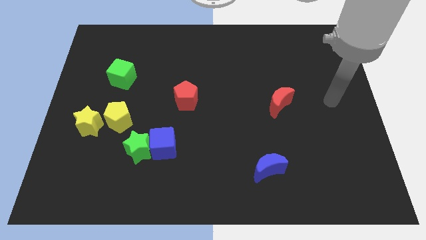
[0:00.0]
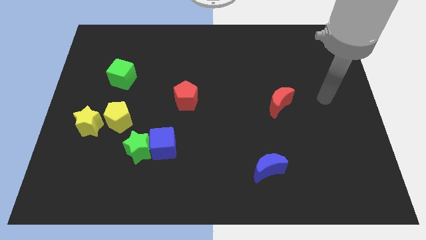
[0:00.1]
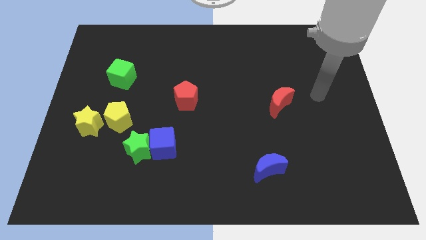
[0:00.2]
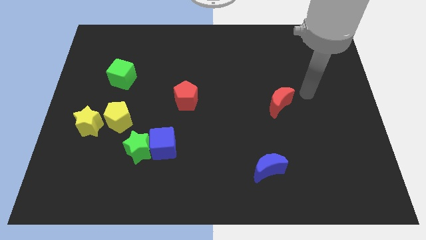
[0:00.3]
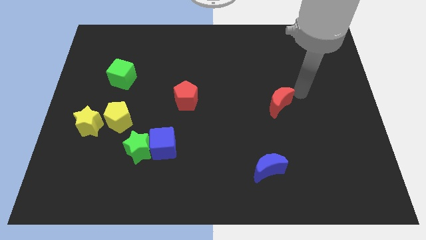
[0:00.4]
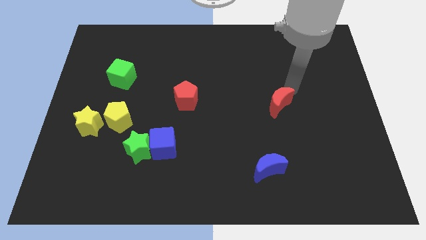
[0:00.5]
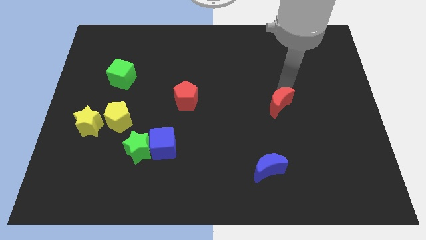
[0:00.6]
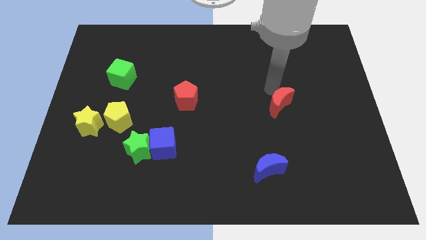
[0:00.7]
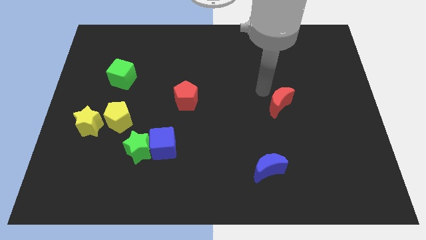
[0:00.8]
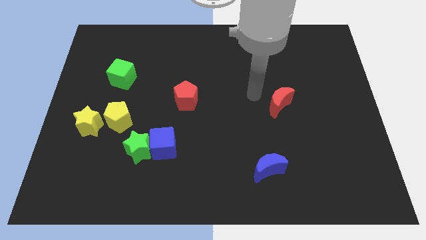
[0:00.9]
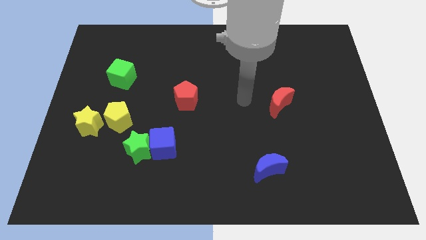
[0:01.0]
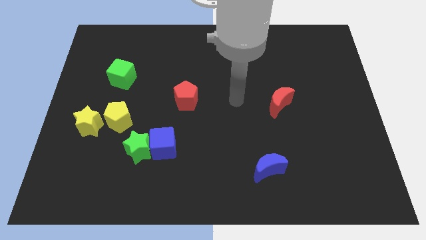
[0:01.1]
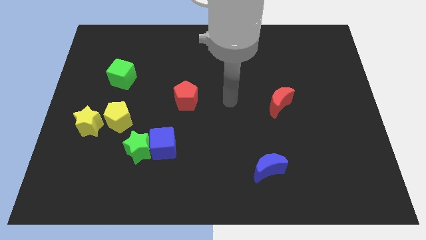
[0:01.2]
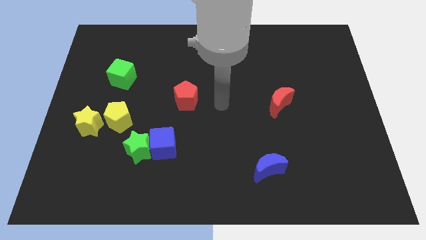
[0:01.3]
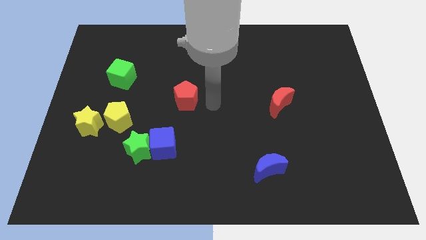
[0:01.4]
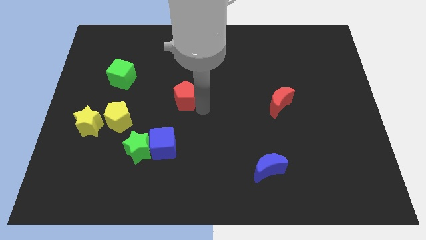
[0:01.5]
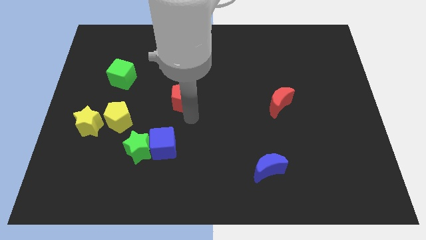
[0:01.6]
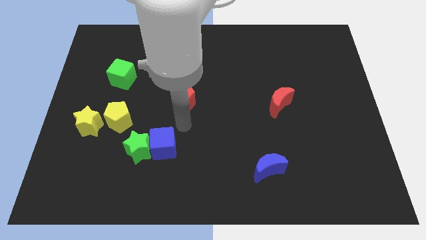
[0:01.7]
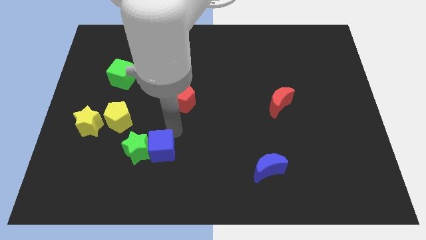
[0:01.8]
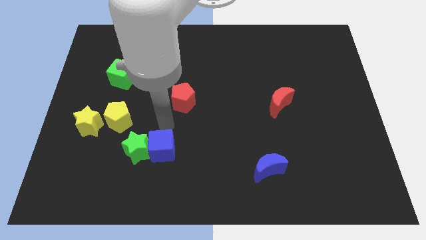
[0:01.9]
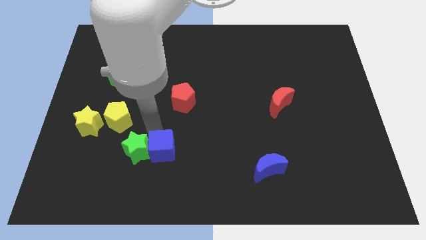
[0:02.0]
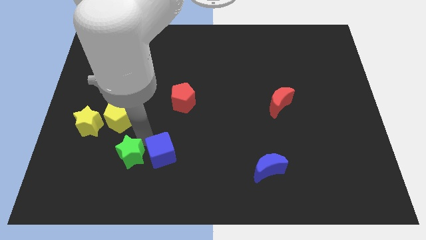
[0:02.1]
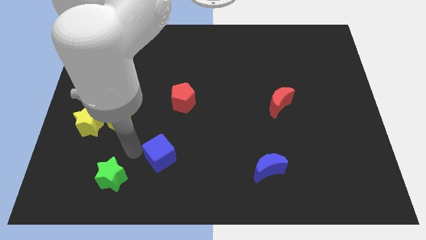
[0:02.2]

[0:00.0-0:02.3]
separate the blue cube from the green star

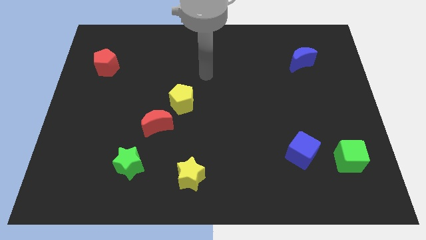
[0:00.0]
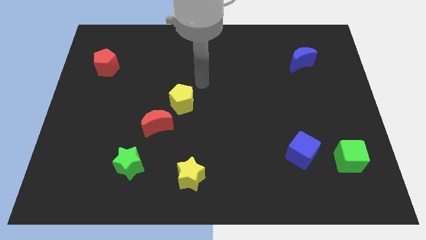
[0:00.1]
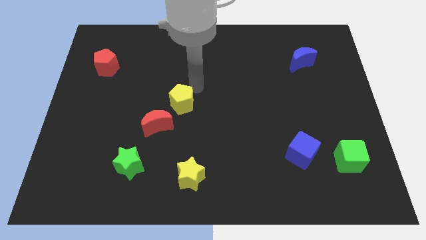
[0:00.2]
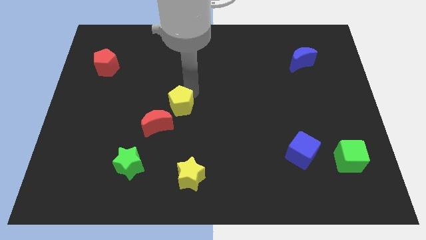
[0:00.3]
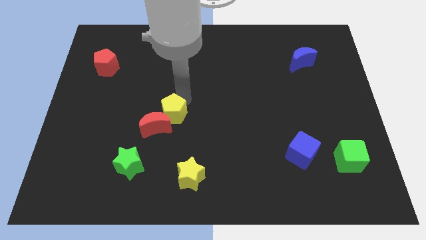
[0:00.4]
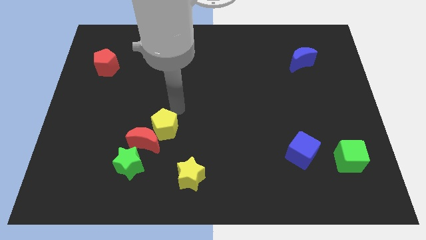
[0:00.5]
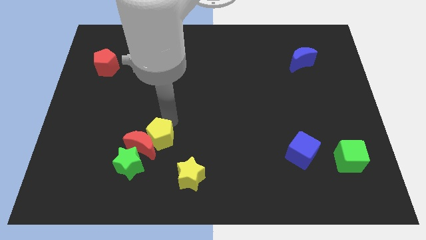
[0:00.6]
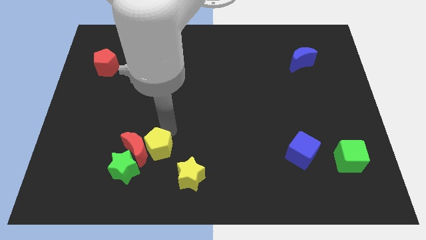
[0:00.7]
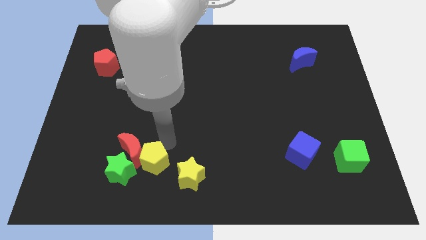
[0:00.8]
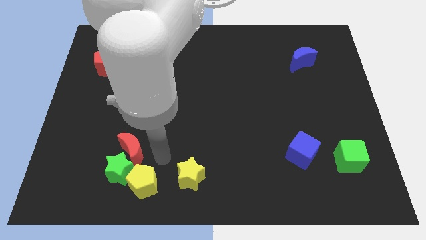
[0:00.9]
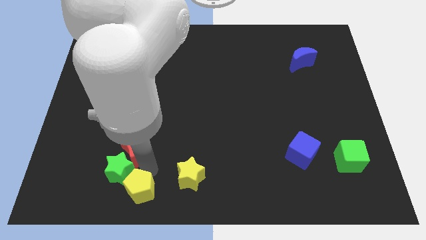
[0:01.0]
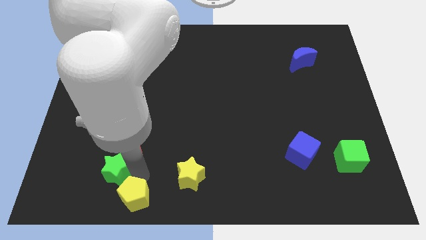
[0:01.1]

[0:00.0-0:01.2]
move the red moon away from the yellow pentagon

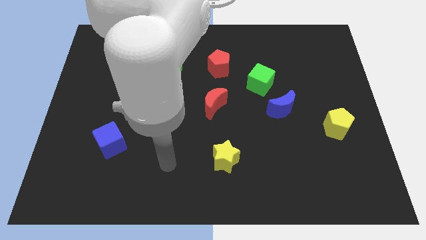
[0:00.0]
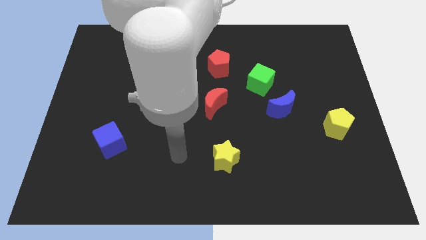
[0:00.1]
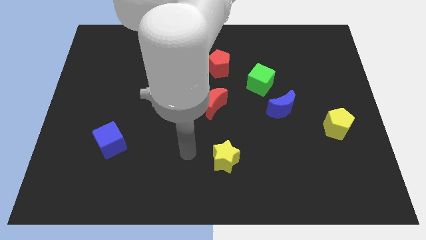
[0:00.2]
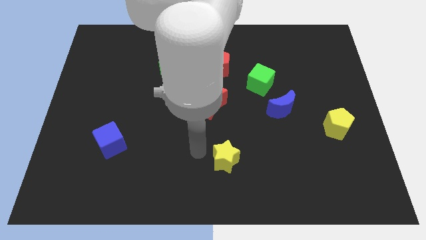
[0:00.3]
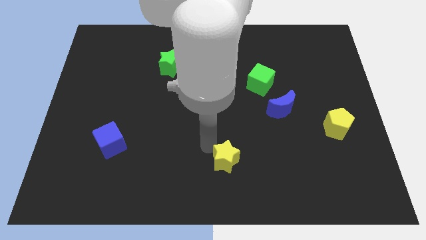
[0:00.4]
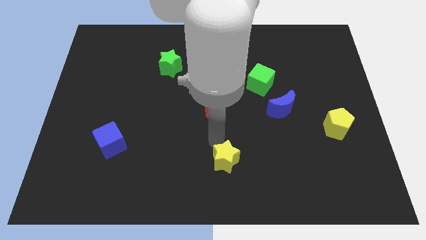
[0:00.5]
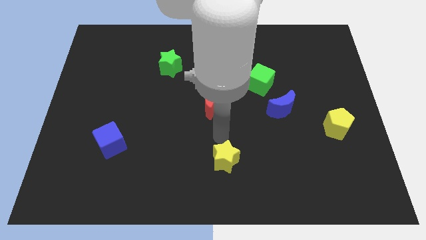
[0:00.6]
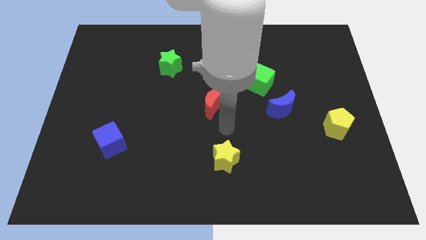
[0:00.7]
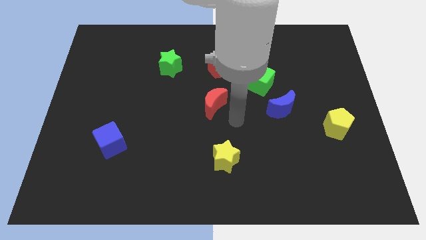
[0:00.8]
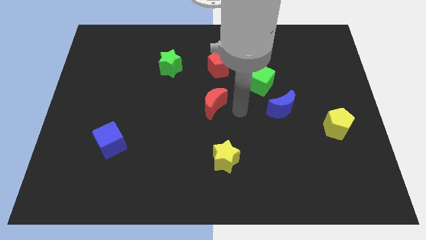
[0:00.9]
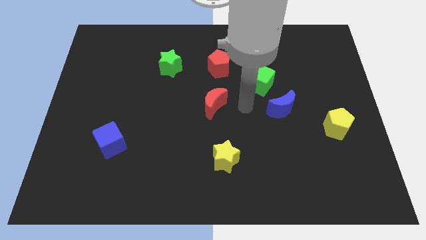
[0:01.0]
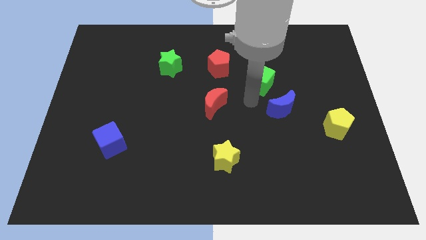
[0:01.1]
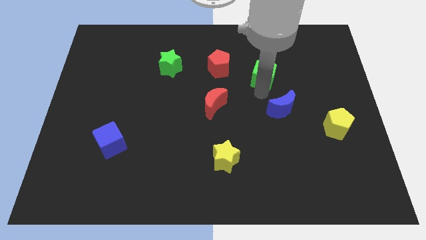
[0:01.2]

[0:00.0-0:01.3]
separate the blue moon from the green cube

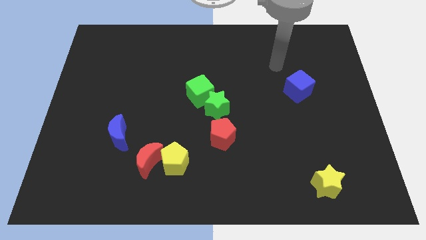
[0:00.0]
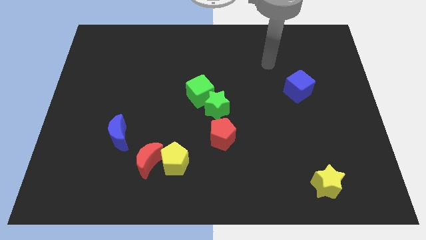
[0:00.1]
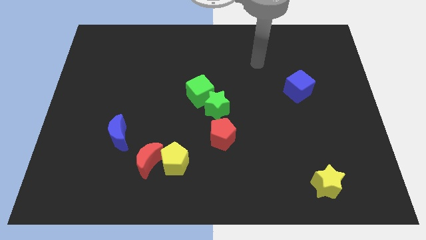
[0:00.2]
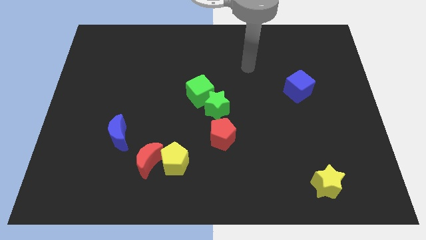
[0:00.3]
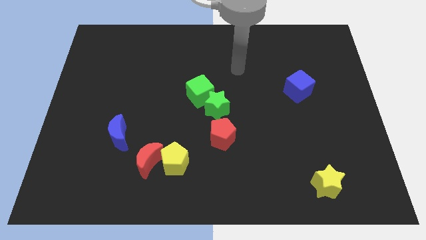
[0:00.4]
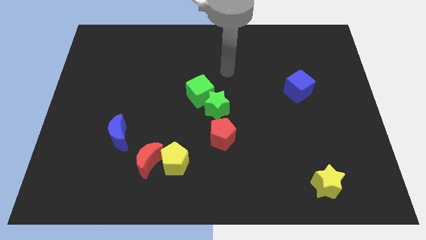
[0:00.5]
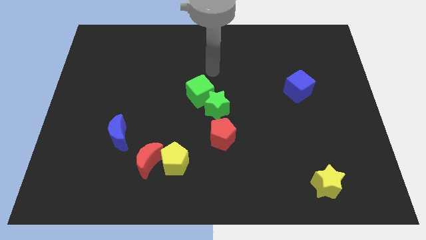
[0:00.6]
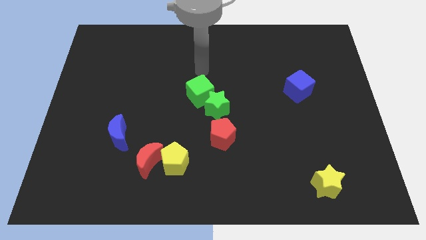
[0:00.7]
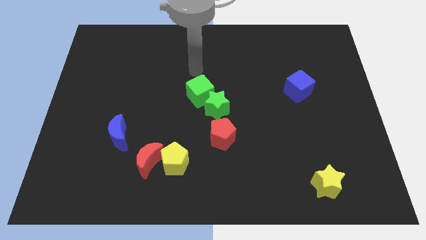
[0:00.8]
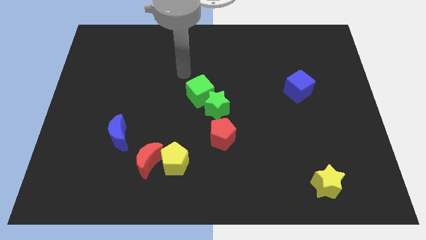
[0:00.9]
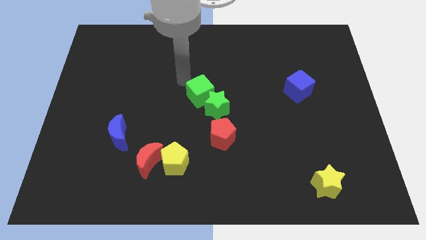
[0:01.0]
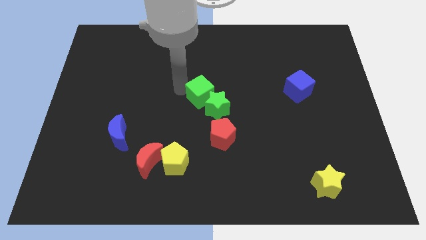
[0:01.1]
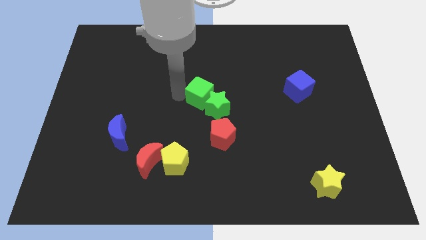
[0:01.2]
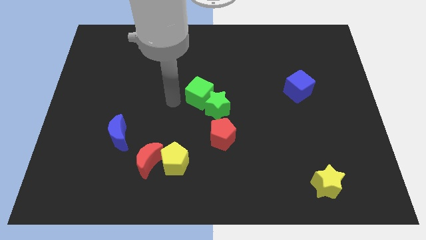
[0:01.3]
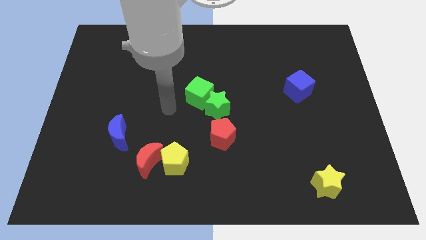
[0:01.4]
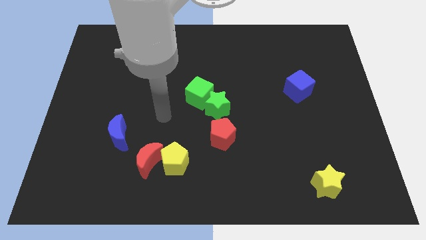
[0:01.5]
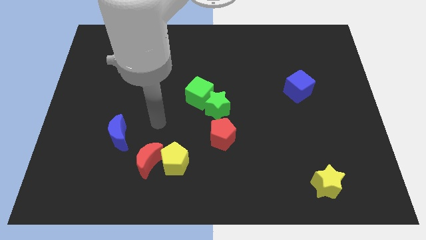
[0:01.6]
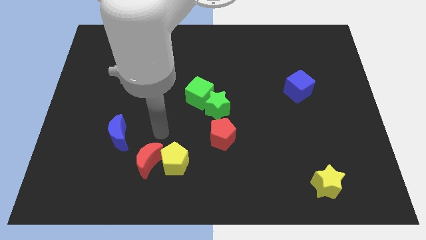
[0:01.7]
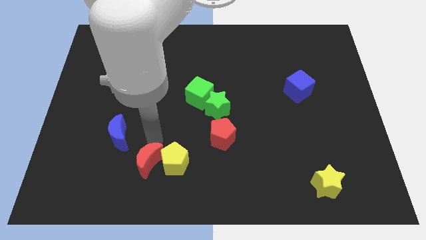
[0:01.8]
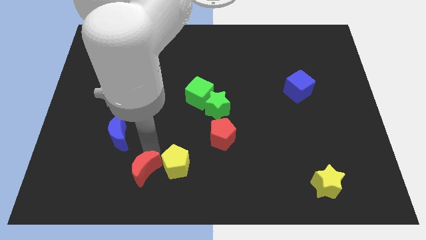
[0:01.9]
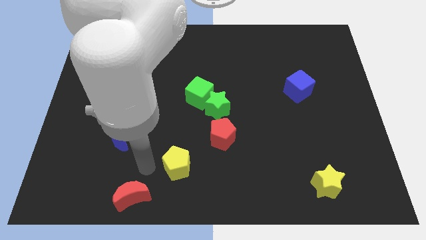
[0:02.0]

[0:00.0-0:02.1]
pull the yellow pentagon apart from the red moon

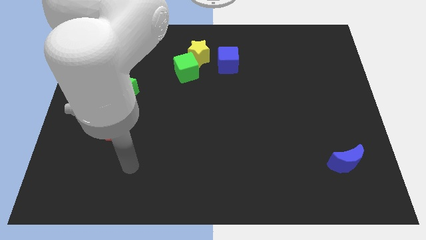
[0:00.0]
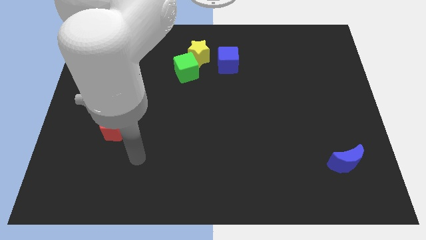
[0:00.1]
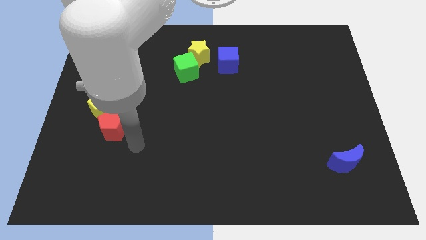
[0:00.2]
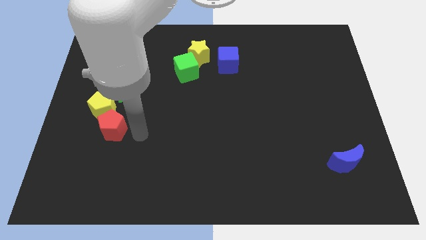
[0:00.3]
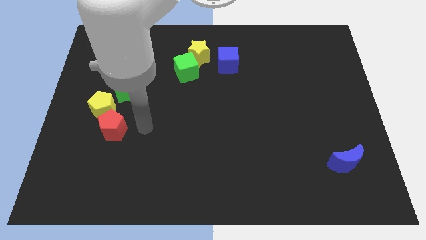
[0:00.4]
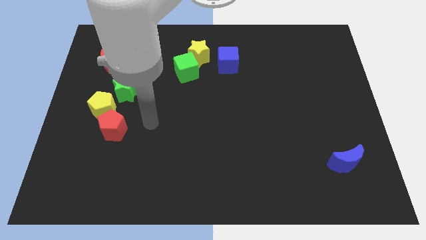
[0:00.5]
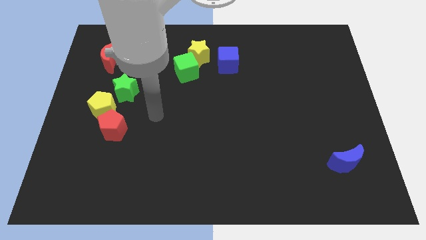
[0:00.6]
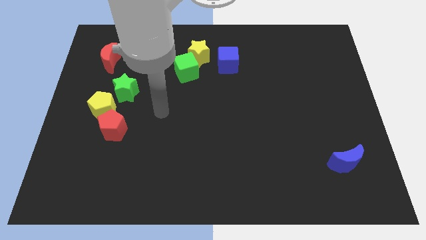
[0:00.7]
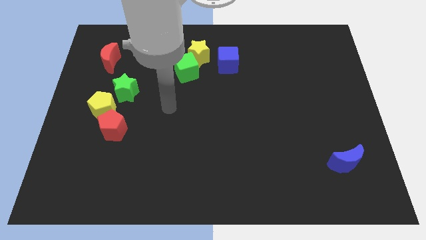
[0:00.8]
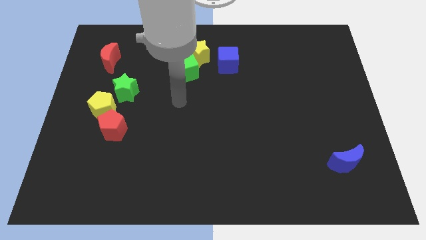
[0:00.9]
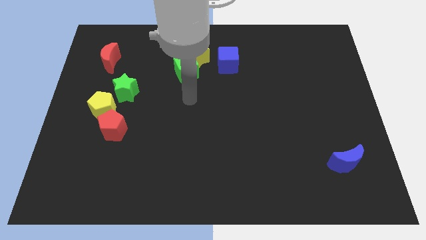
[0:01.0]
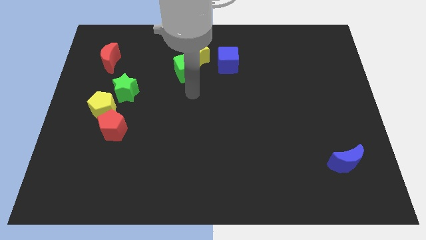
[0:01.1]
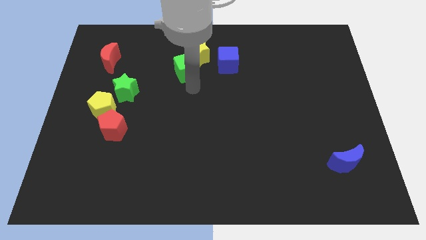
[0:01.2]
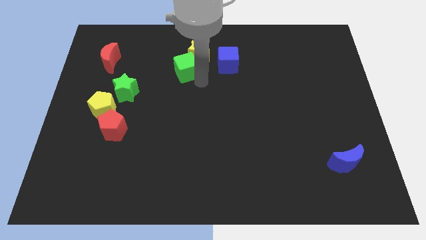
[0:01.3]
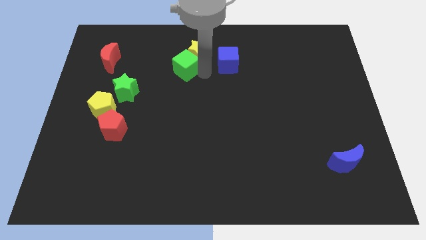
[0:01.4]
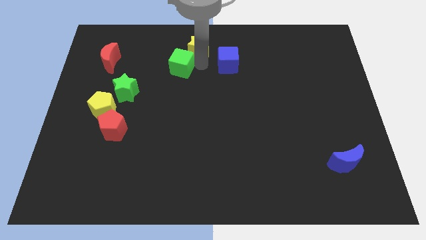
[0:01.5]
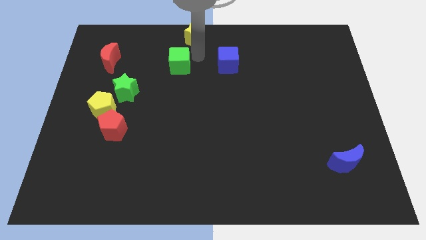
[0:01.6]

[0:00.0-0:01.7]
move the green cube away from the yellow star

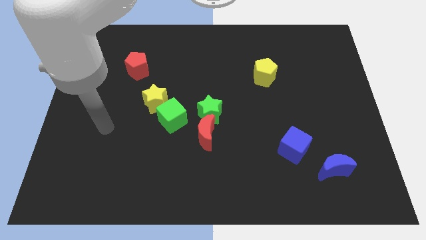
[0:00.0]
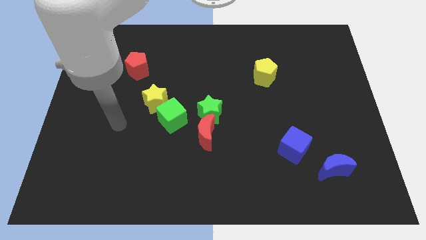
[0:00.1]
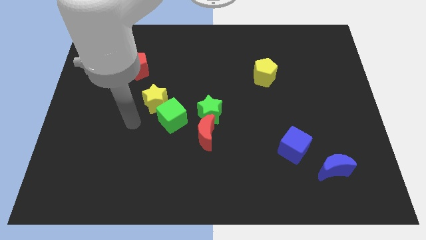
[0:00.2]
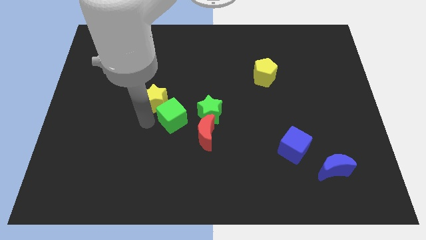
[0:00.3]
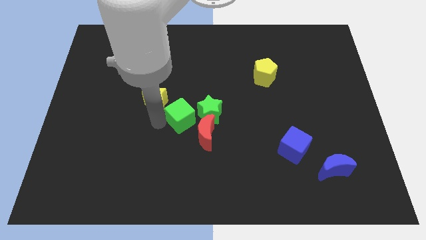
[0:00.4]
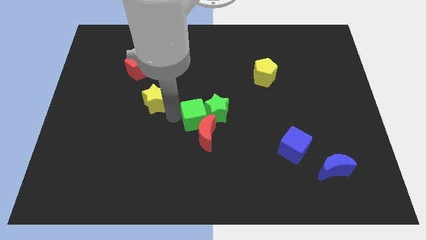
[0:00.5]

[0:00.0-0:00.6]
move the yellow star away from the green cube

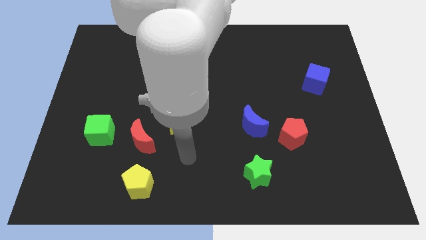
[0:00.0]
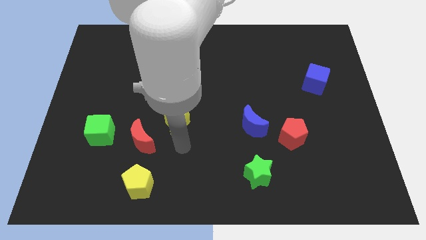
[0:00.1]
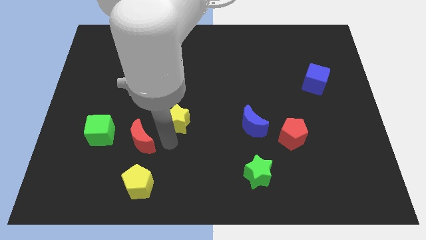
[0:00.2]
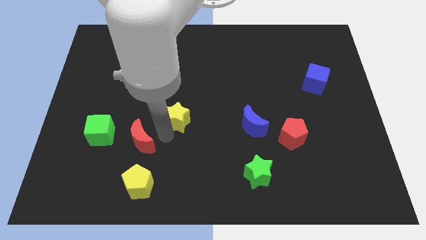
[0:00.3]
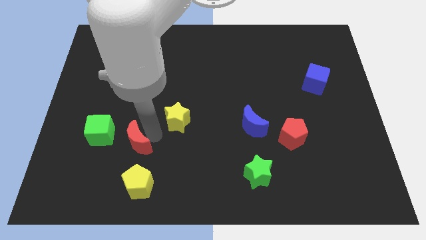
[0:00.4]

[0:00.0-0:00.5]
move the yellow star away from the red moon
